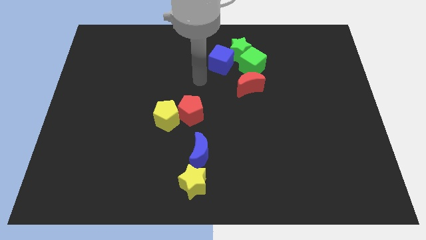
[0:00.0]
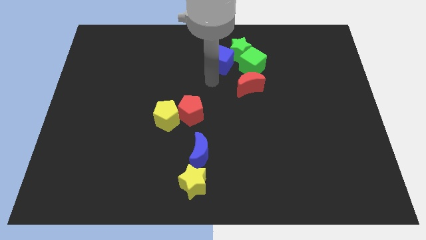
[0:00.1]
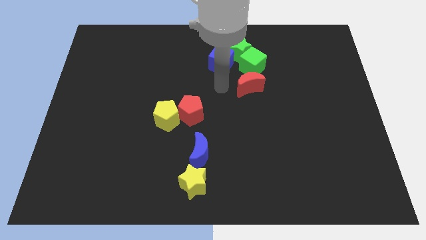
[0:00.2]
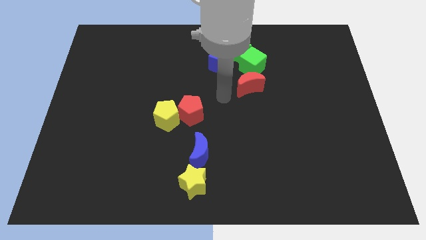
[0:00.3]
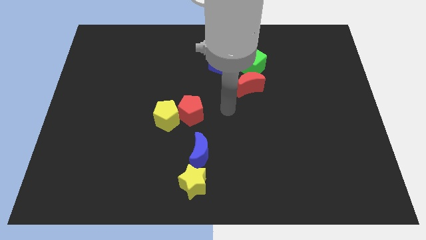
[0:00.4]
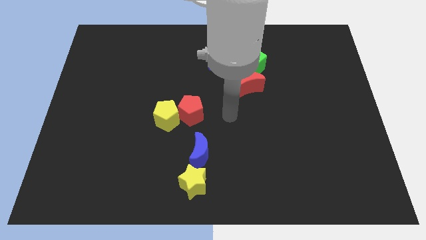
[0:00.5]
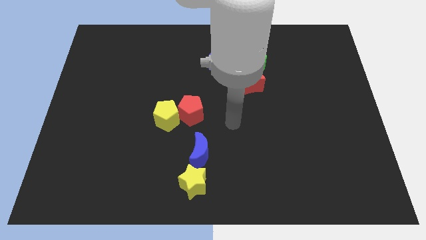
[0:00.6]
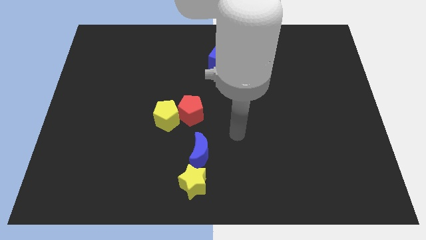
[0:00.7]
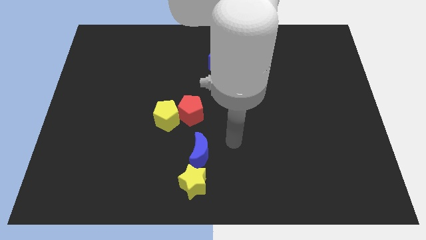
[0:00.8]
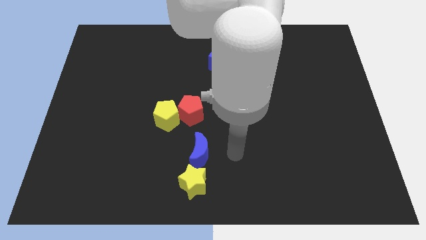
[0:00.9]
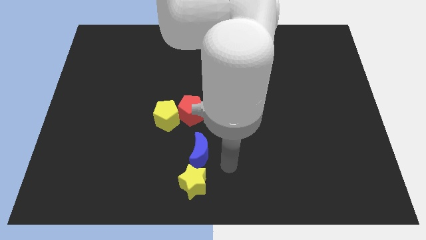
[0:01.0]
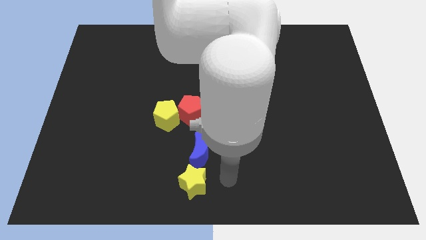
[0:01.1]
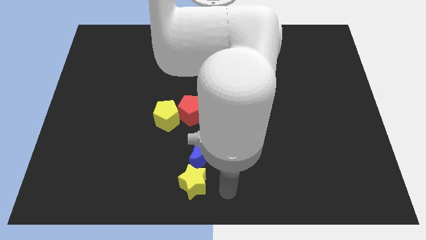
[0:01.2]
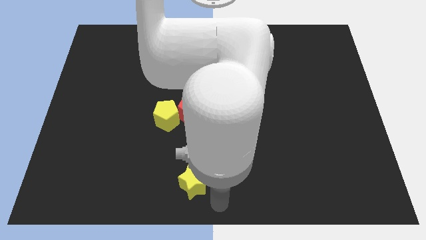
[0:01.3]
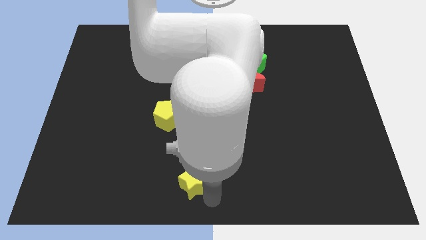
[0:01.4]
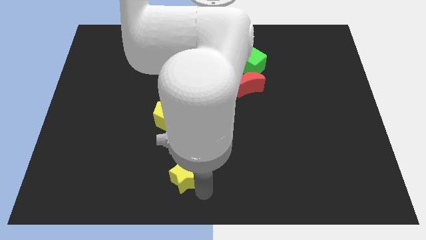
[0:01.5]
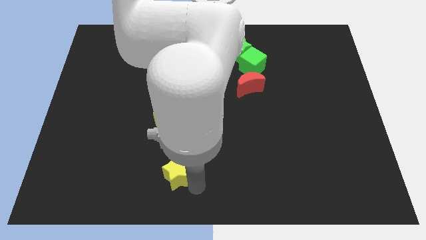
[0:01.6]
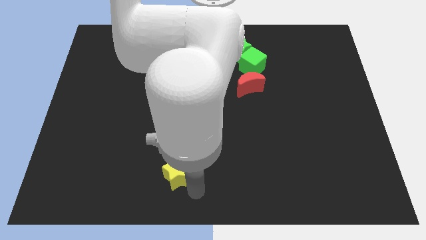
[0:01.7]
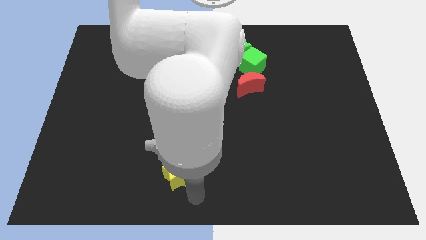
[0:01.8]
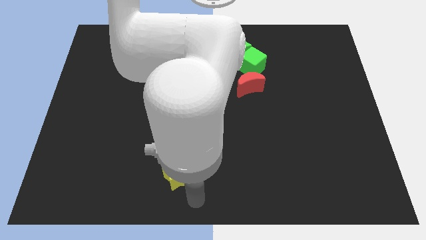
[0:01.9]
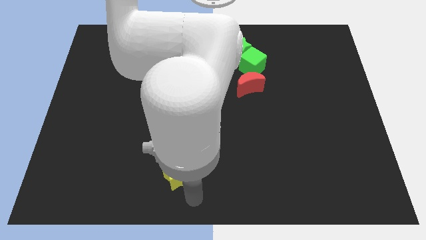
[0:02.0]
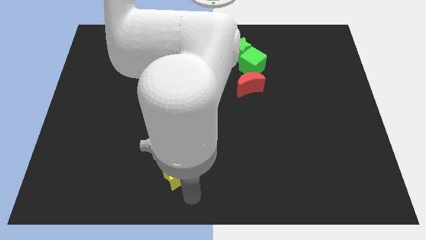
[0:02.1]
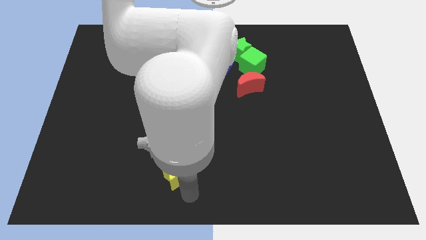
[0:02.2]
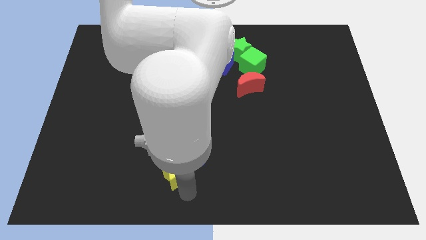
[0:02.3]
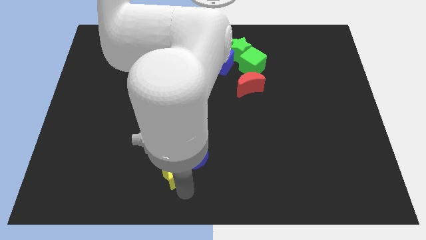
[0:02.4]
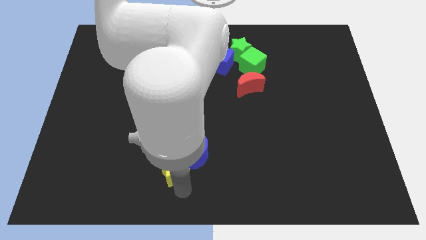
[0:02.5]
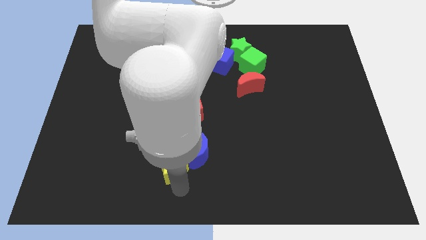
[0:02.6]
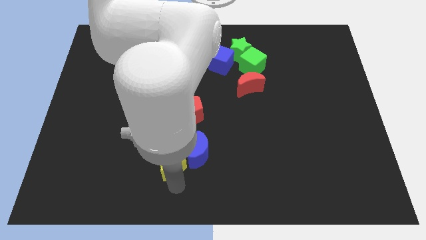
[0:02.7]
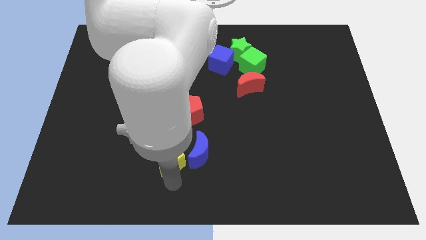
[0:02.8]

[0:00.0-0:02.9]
move the yellow star a little bit diagonally upwards and to the left

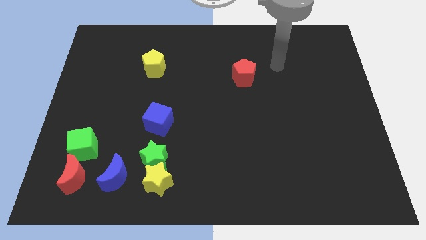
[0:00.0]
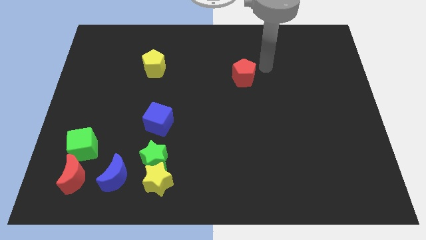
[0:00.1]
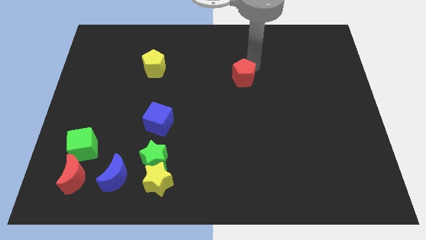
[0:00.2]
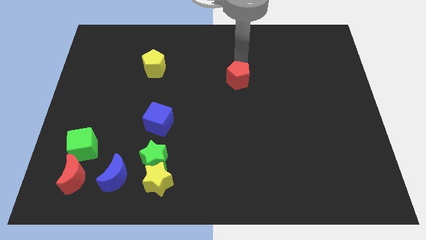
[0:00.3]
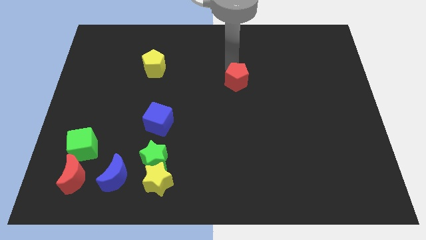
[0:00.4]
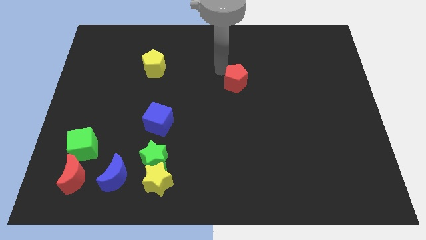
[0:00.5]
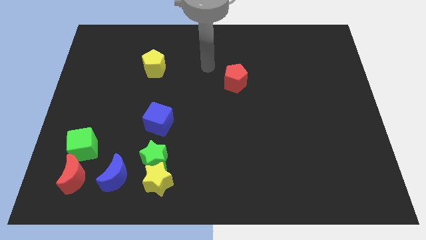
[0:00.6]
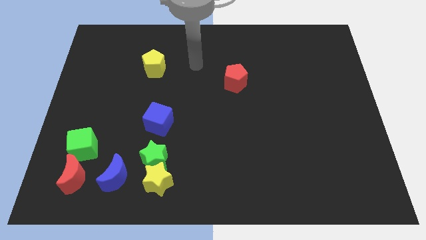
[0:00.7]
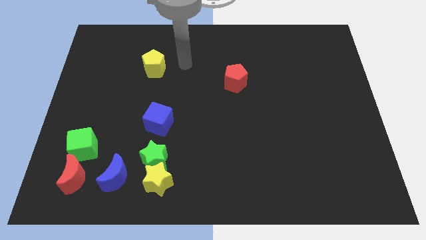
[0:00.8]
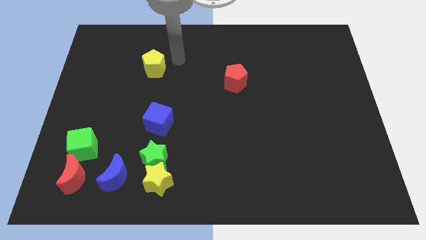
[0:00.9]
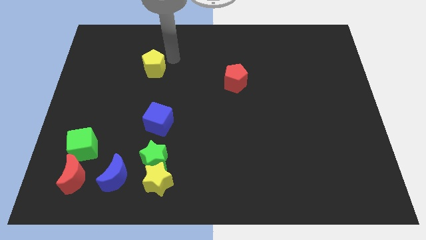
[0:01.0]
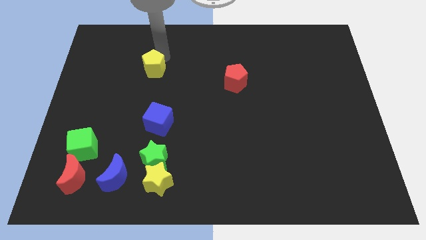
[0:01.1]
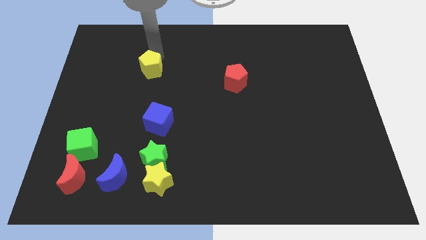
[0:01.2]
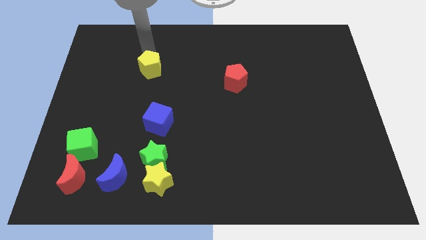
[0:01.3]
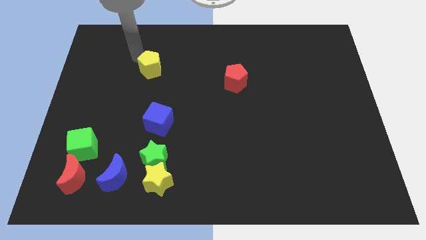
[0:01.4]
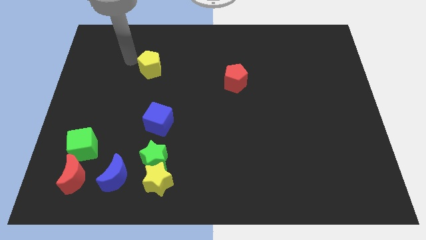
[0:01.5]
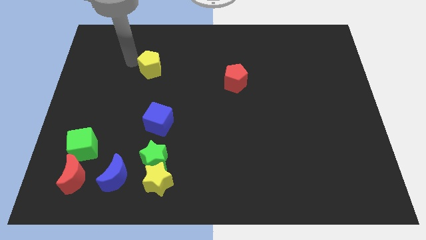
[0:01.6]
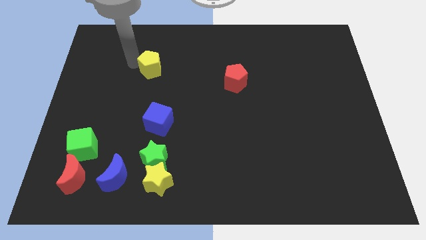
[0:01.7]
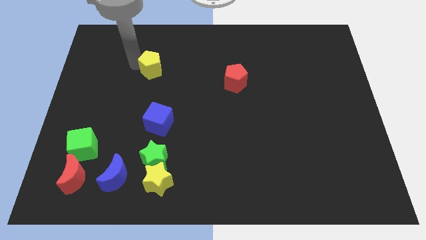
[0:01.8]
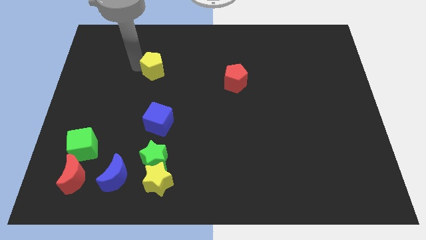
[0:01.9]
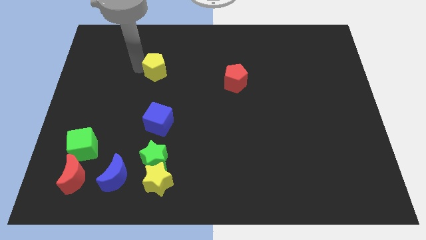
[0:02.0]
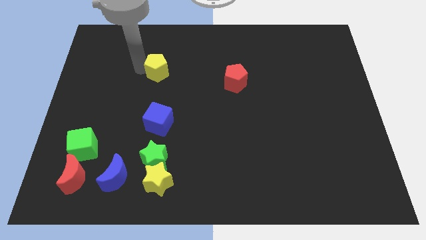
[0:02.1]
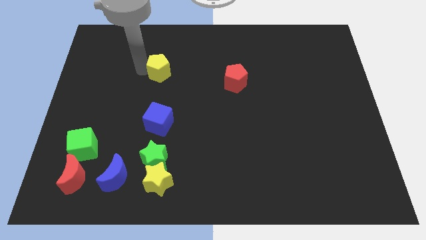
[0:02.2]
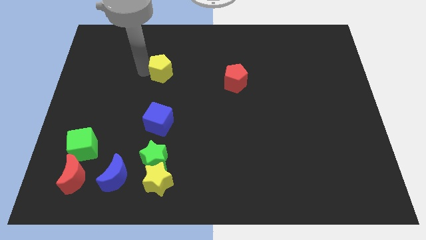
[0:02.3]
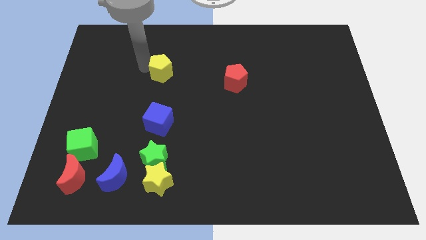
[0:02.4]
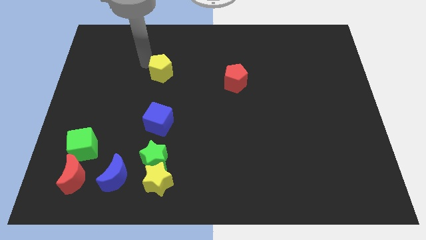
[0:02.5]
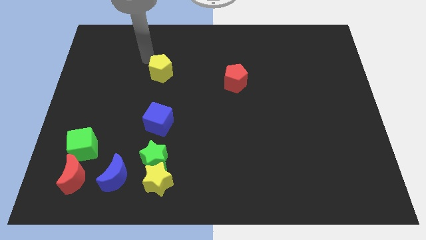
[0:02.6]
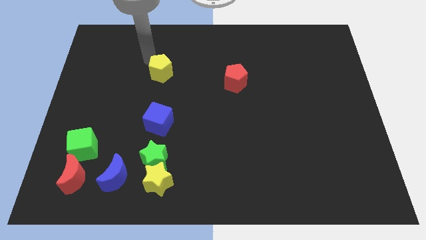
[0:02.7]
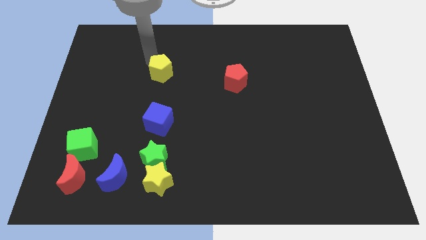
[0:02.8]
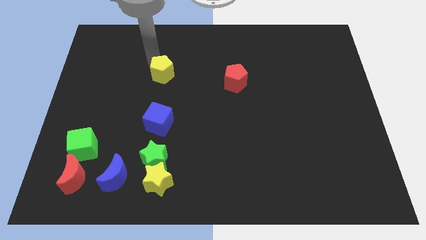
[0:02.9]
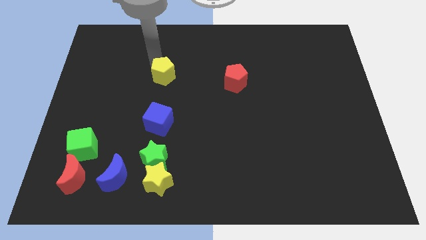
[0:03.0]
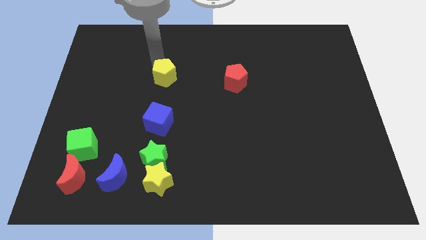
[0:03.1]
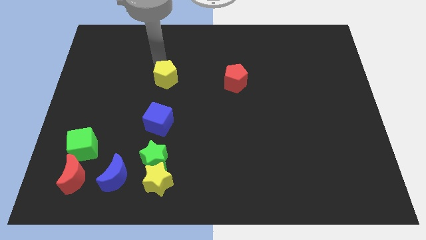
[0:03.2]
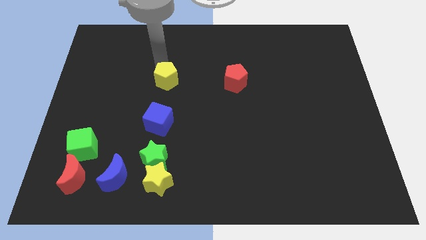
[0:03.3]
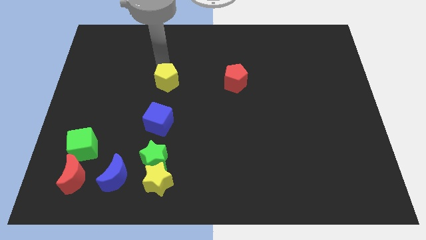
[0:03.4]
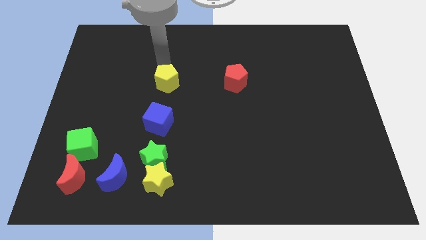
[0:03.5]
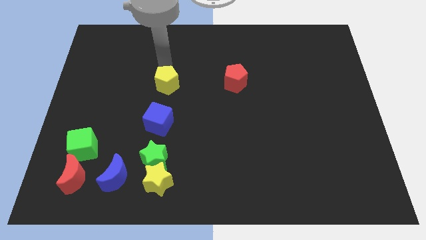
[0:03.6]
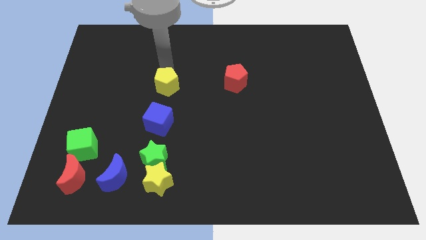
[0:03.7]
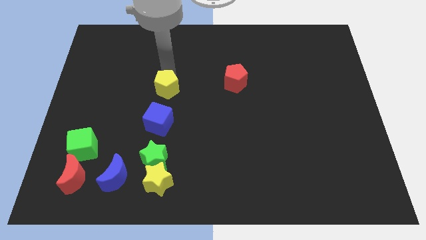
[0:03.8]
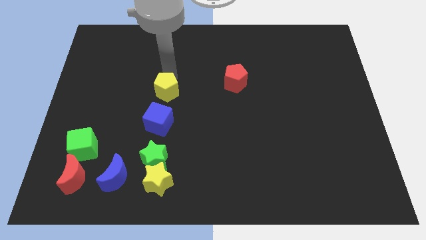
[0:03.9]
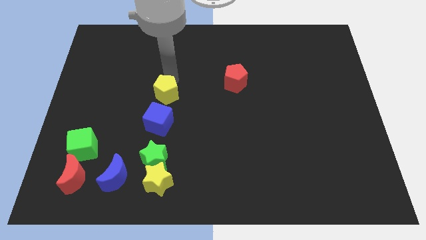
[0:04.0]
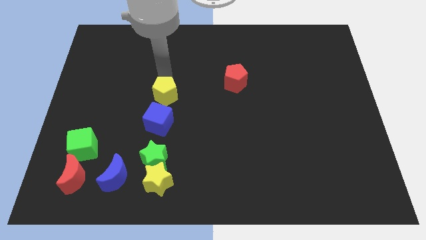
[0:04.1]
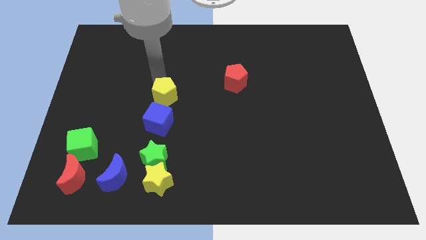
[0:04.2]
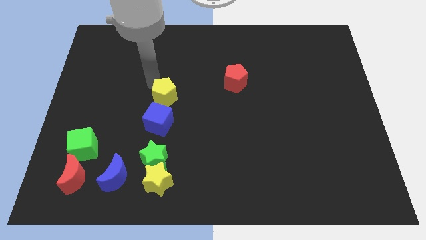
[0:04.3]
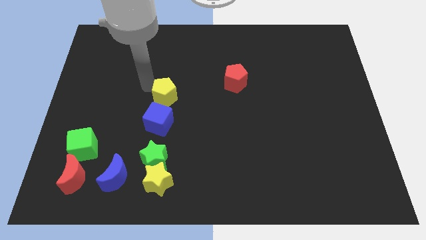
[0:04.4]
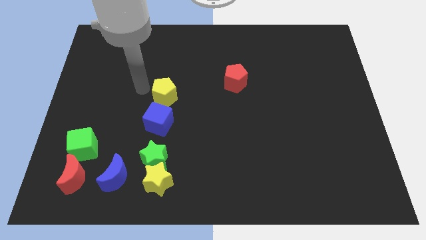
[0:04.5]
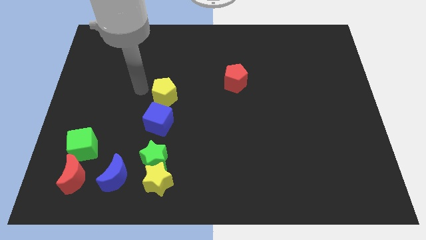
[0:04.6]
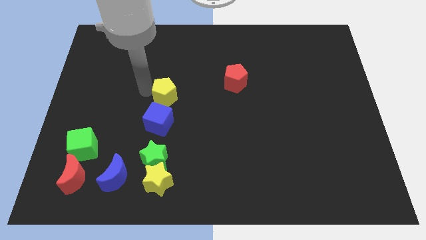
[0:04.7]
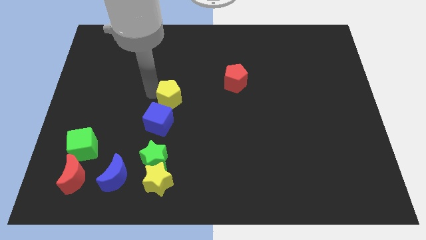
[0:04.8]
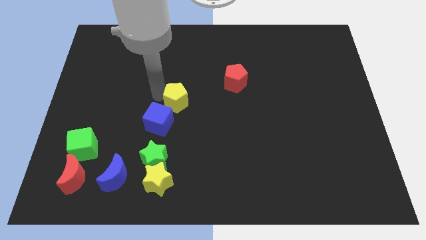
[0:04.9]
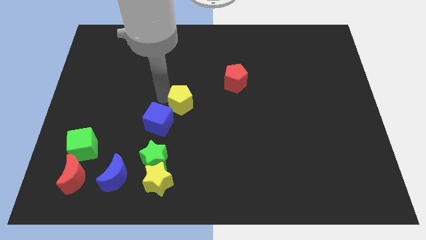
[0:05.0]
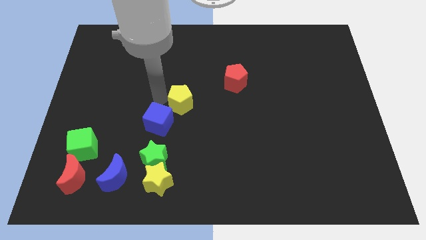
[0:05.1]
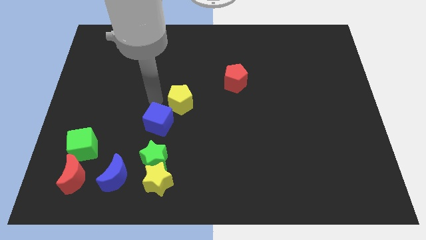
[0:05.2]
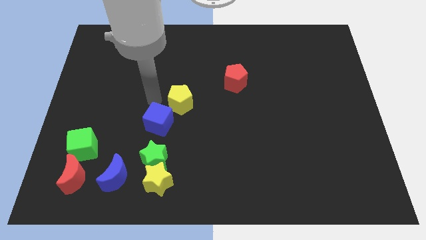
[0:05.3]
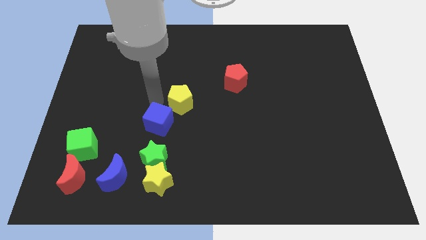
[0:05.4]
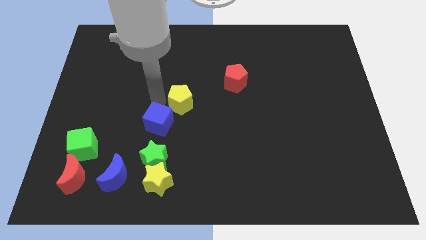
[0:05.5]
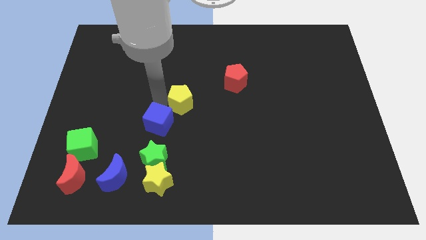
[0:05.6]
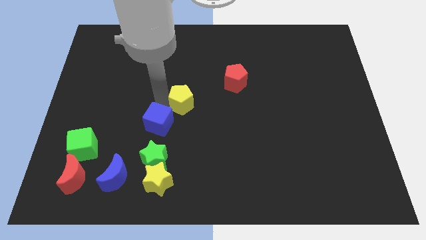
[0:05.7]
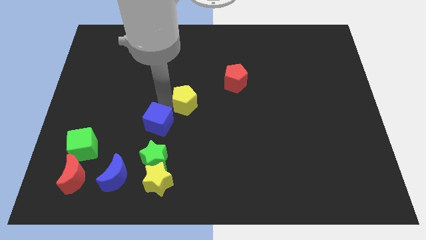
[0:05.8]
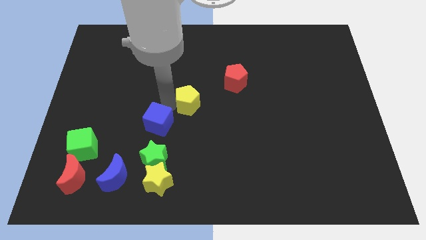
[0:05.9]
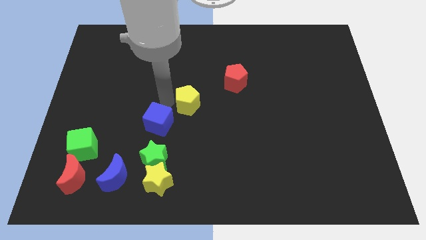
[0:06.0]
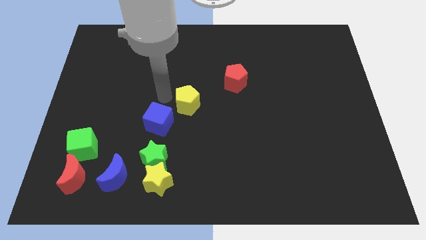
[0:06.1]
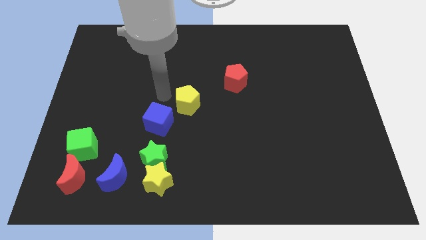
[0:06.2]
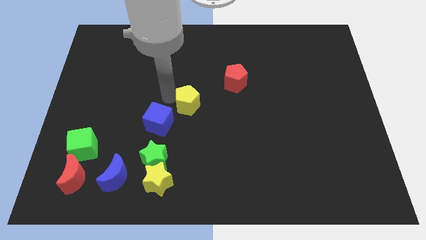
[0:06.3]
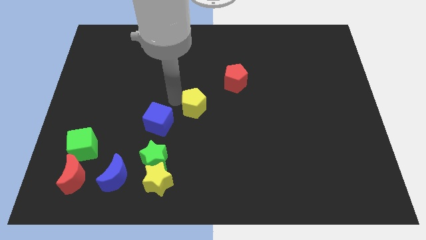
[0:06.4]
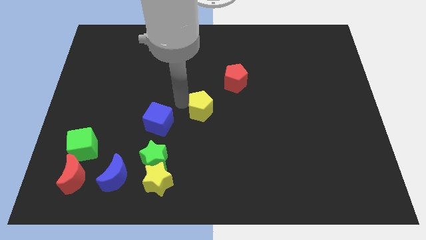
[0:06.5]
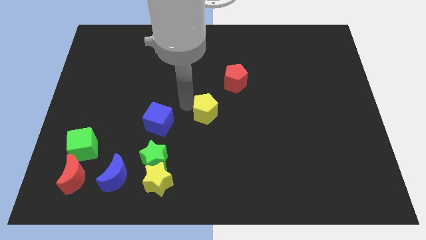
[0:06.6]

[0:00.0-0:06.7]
slide the yellow pentagon downwards and then to the right
